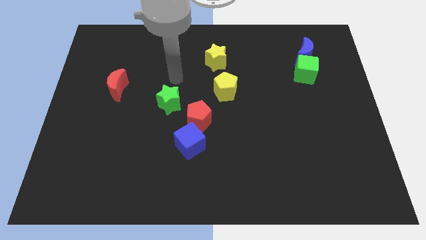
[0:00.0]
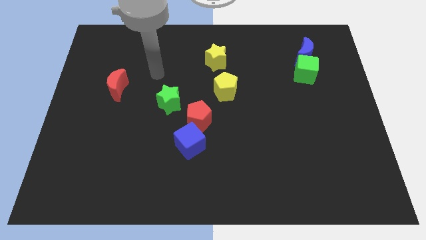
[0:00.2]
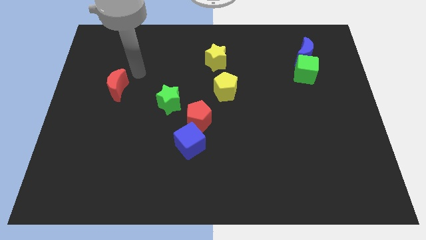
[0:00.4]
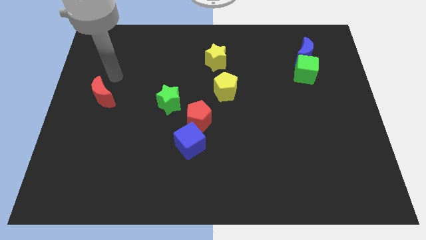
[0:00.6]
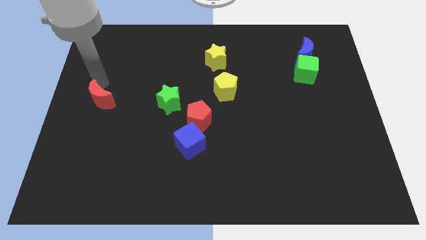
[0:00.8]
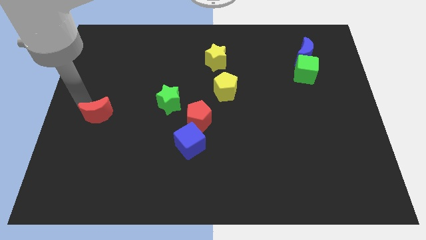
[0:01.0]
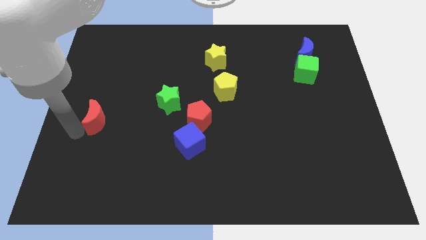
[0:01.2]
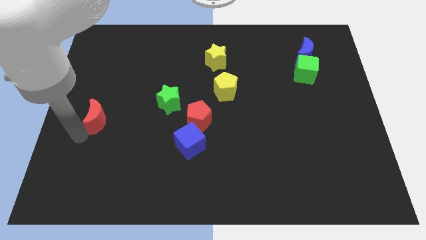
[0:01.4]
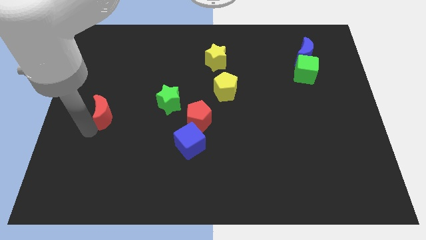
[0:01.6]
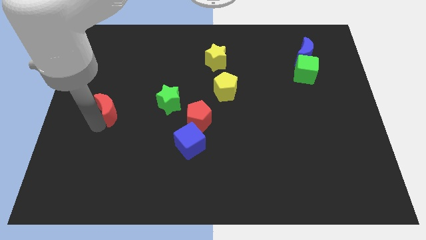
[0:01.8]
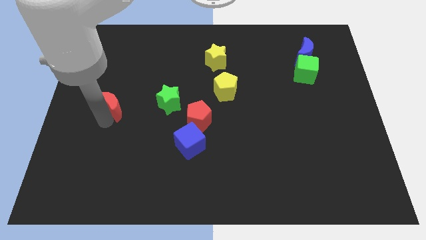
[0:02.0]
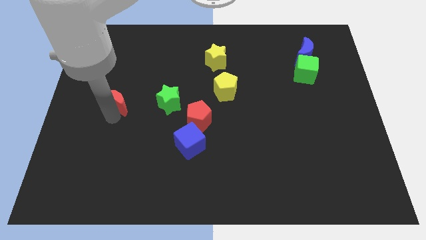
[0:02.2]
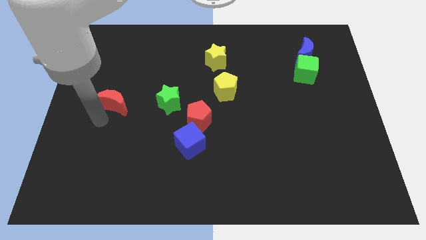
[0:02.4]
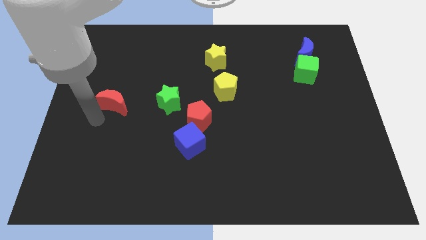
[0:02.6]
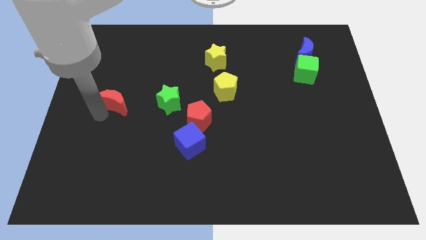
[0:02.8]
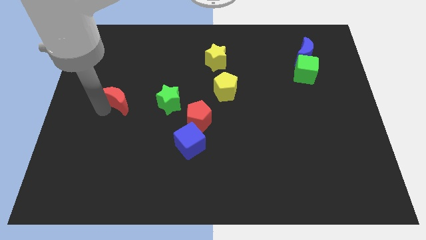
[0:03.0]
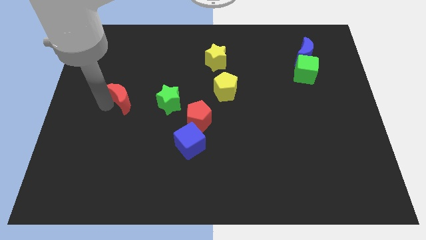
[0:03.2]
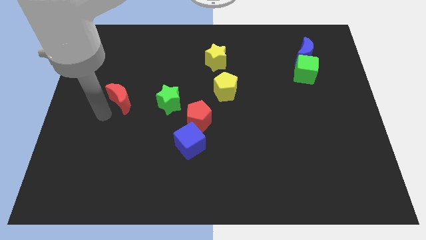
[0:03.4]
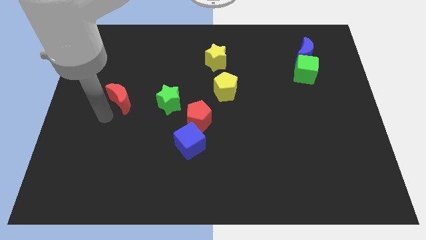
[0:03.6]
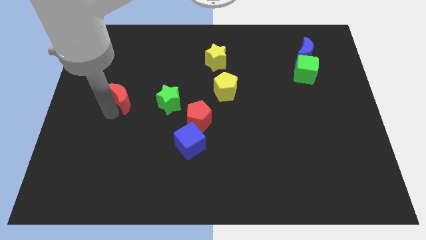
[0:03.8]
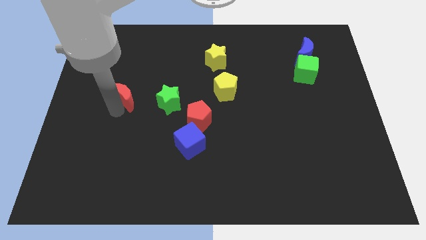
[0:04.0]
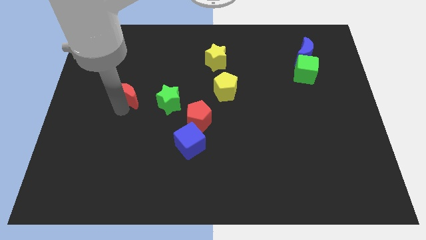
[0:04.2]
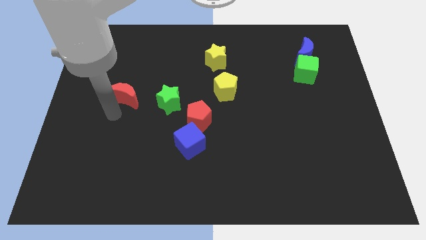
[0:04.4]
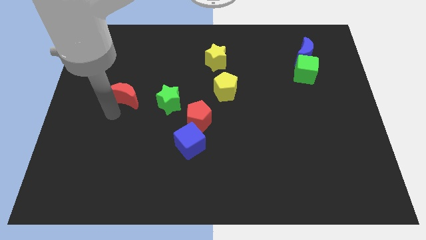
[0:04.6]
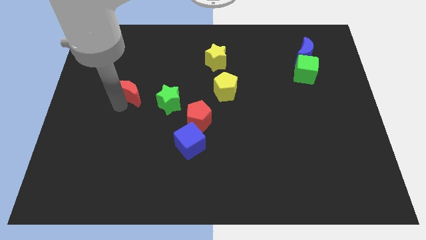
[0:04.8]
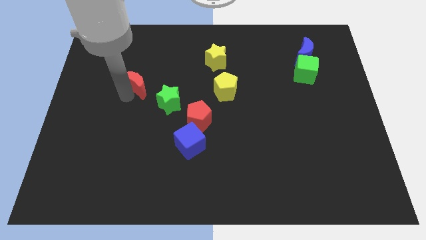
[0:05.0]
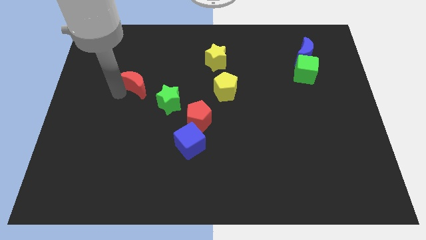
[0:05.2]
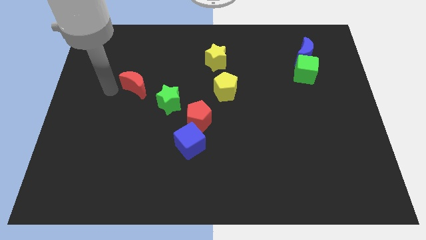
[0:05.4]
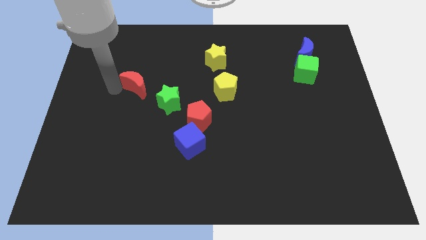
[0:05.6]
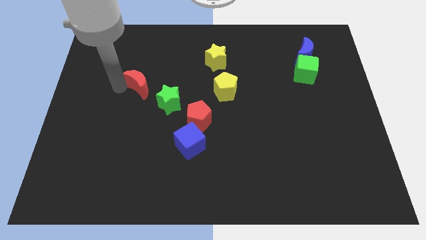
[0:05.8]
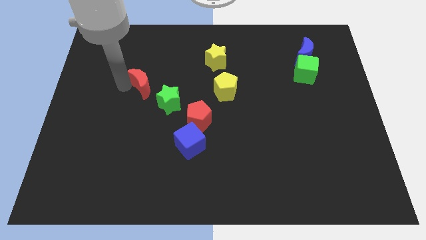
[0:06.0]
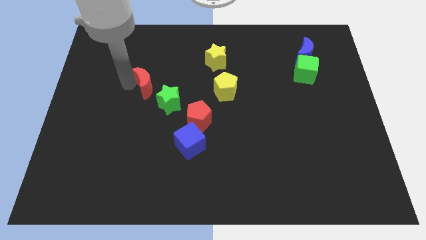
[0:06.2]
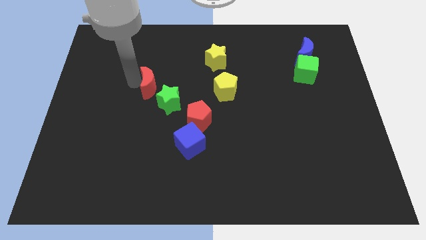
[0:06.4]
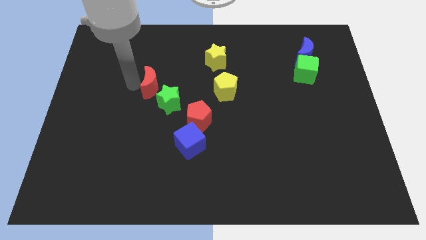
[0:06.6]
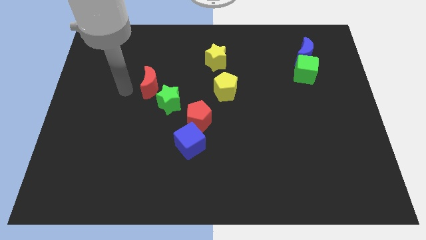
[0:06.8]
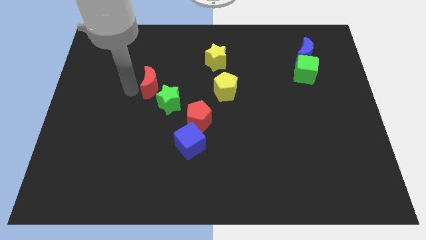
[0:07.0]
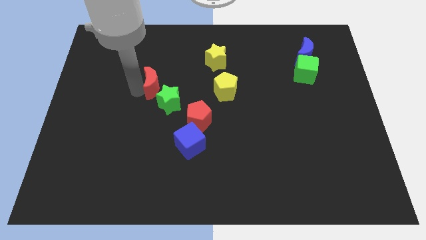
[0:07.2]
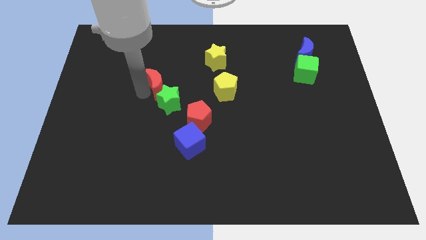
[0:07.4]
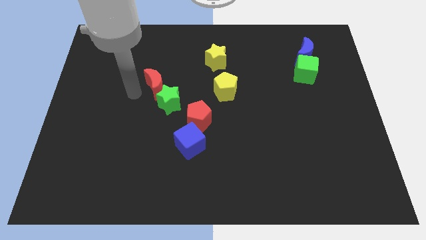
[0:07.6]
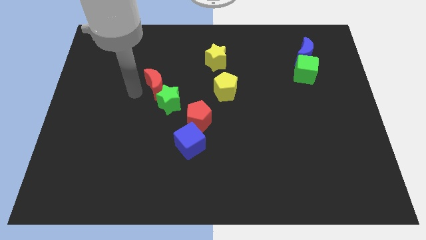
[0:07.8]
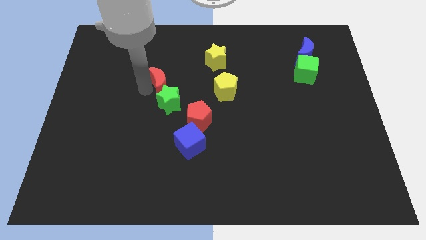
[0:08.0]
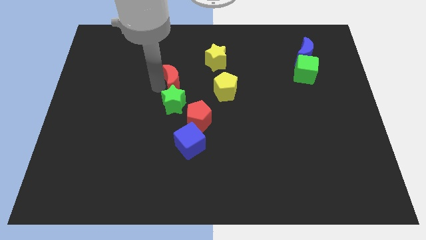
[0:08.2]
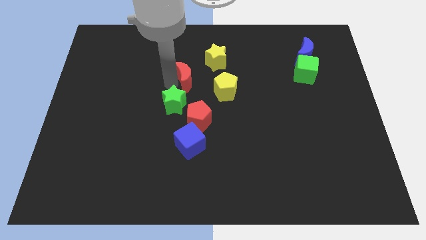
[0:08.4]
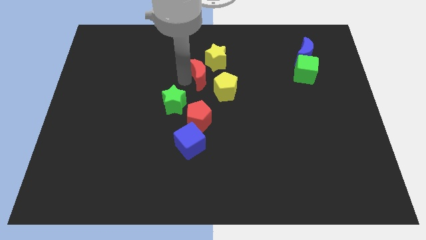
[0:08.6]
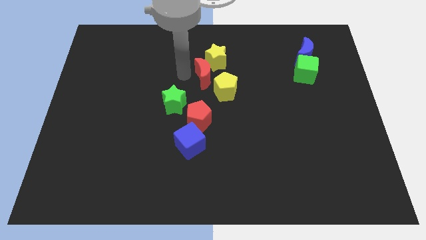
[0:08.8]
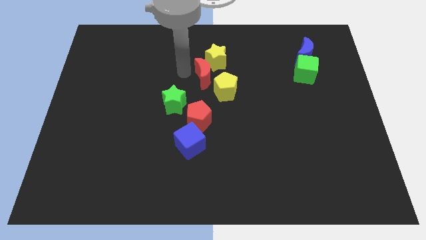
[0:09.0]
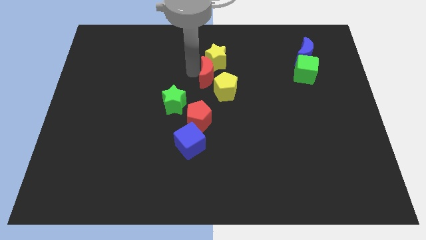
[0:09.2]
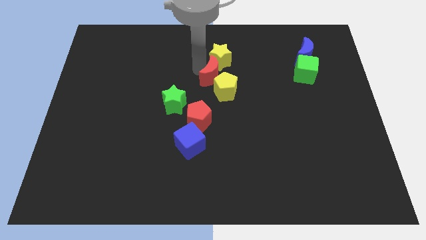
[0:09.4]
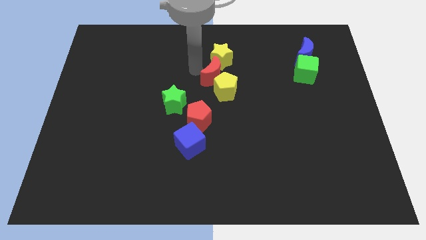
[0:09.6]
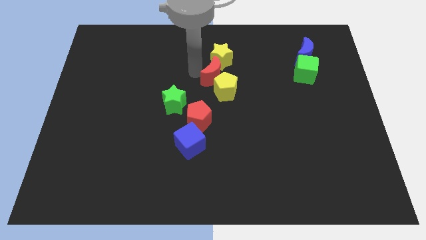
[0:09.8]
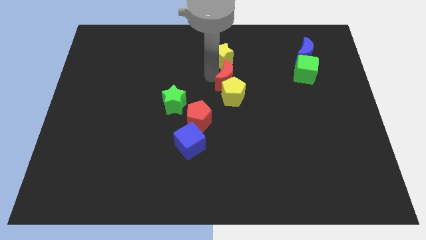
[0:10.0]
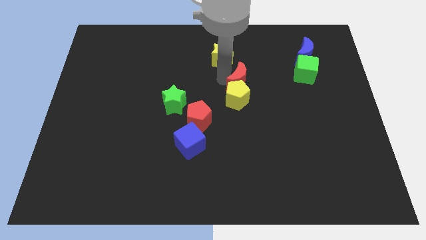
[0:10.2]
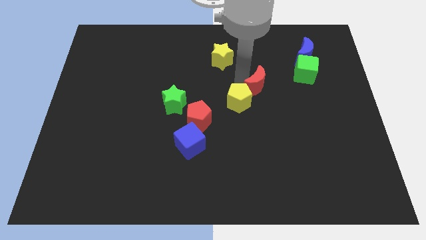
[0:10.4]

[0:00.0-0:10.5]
put the red moon just right of the yellow pentagon

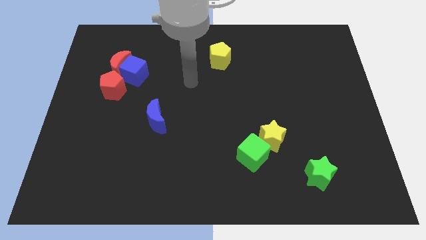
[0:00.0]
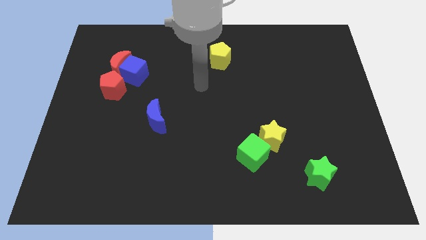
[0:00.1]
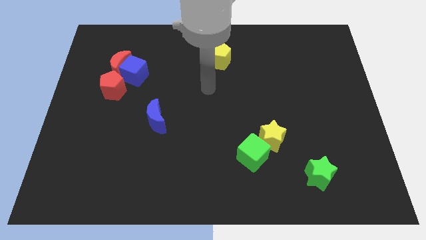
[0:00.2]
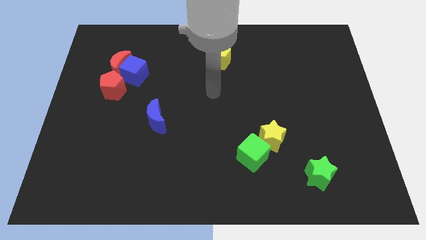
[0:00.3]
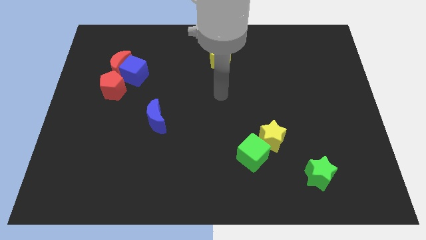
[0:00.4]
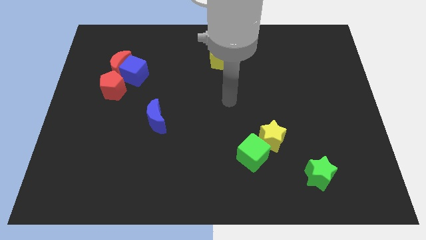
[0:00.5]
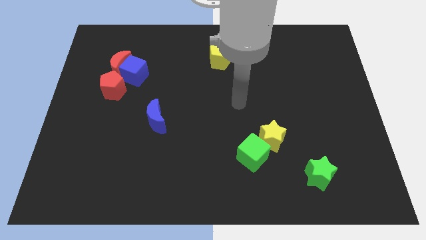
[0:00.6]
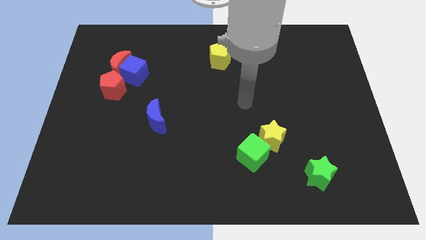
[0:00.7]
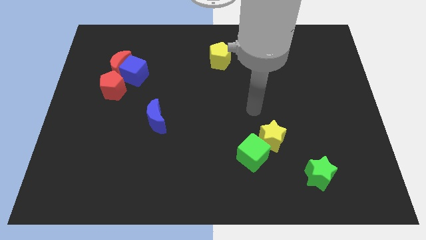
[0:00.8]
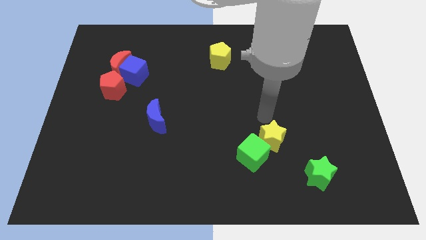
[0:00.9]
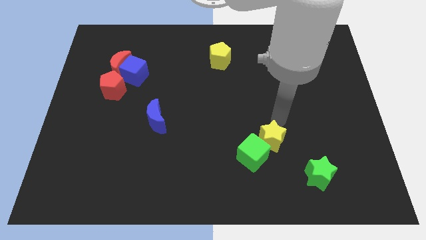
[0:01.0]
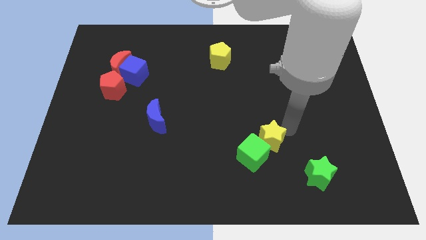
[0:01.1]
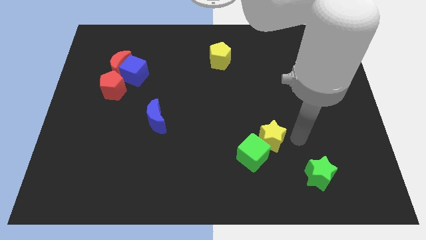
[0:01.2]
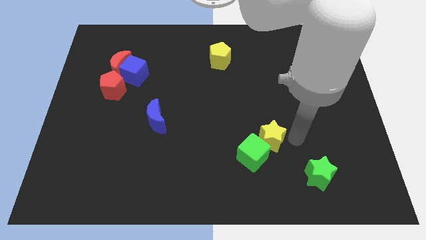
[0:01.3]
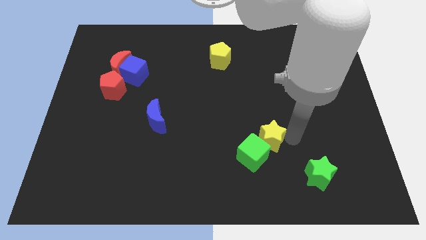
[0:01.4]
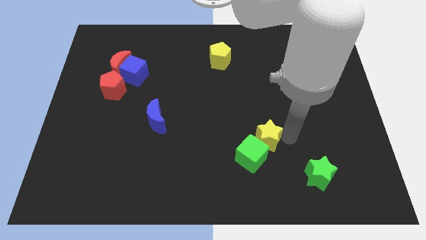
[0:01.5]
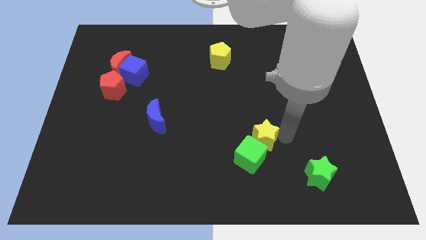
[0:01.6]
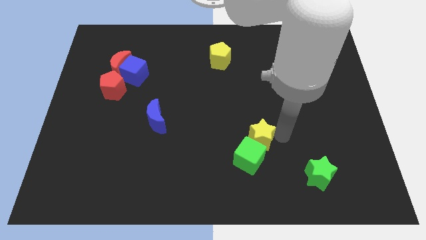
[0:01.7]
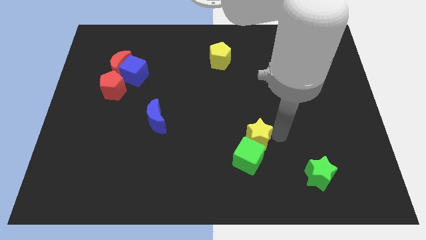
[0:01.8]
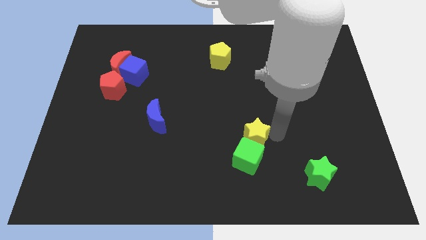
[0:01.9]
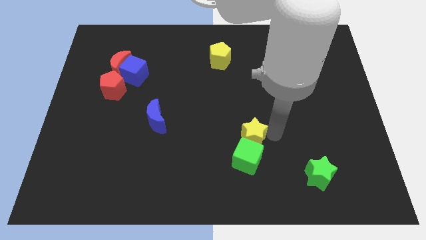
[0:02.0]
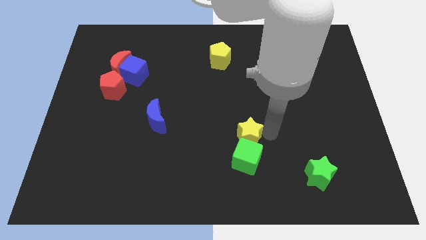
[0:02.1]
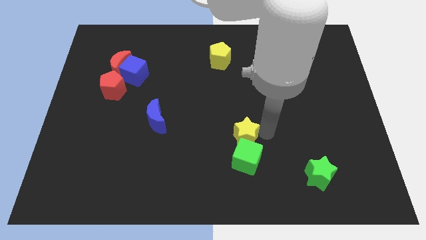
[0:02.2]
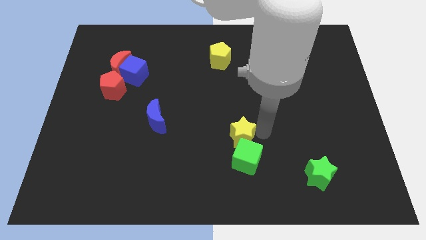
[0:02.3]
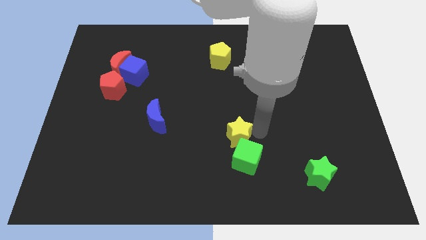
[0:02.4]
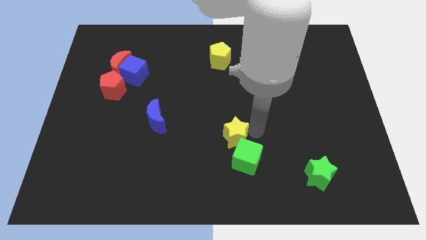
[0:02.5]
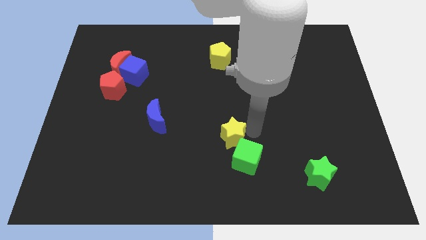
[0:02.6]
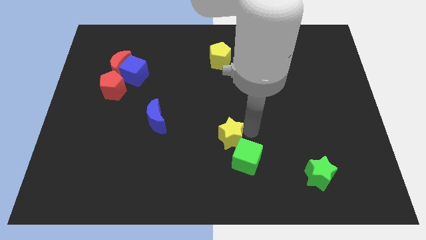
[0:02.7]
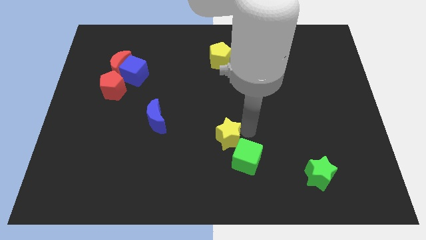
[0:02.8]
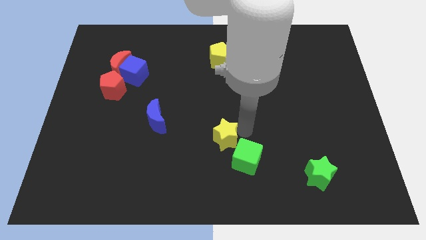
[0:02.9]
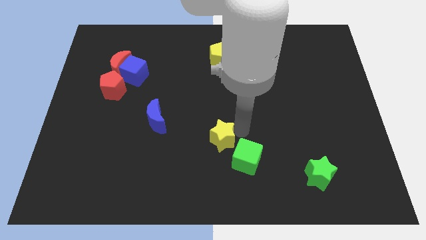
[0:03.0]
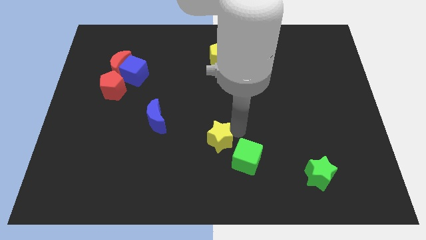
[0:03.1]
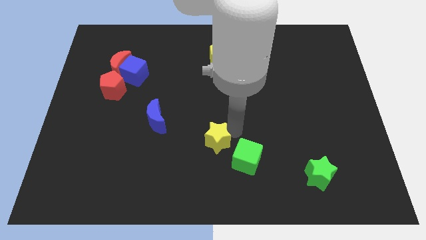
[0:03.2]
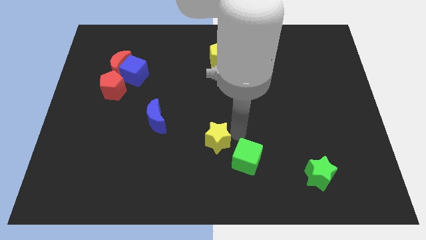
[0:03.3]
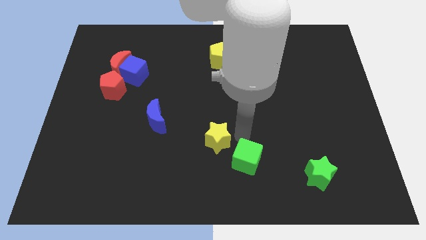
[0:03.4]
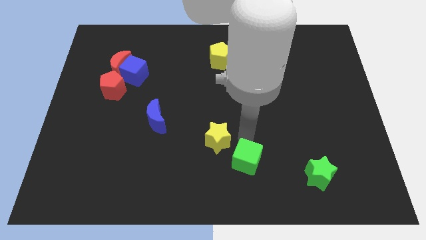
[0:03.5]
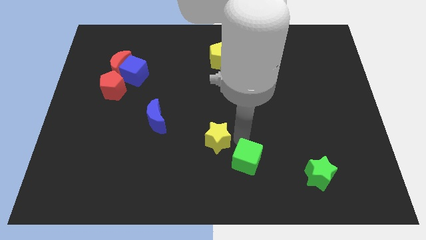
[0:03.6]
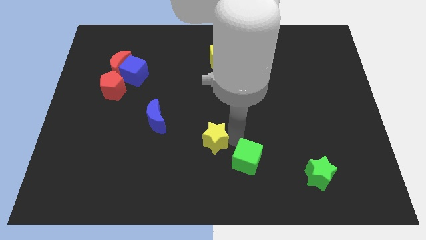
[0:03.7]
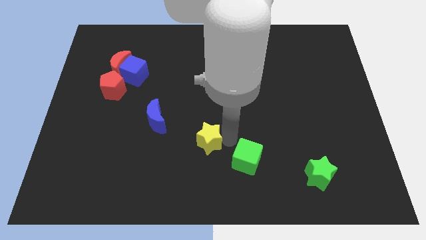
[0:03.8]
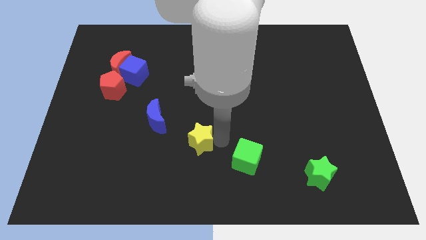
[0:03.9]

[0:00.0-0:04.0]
push the yellow star to the bottom right side of the blue moon
